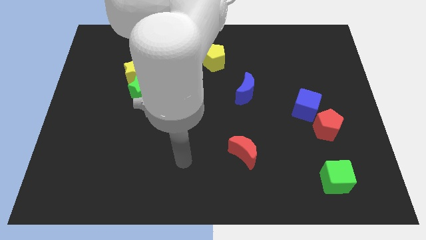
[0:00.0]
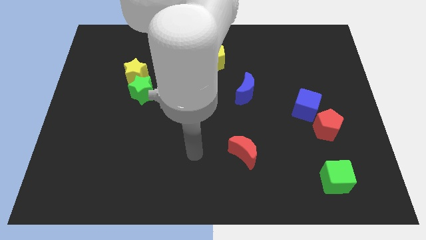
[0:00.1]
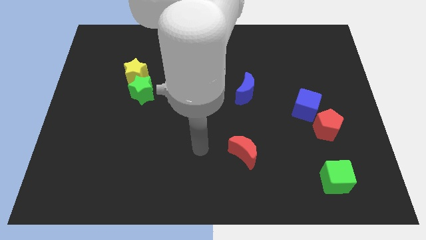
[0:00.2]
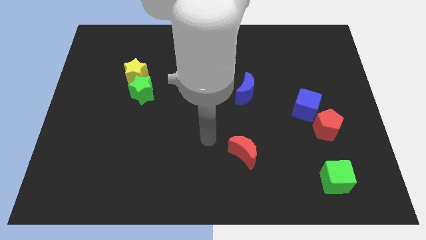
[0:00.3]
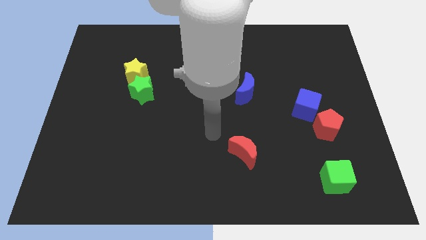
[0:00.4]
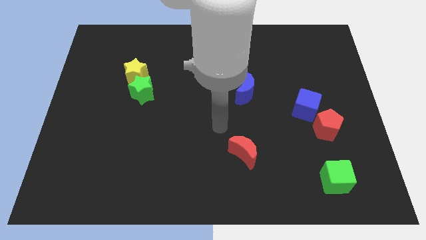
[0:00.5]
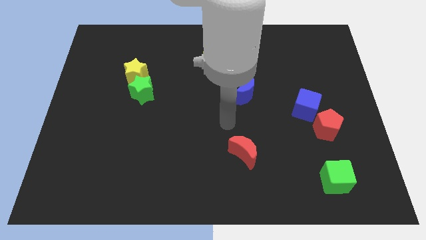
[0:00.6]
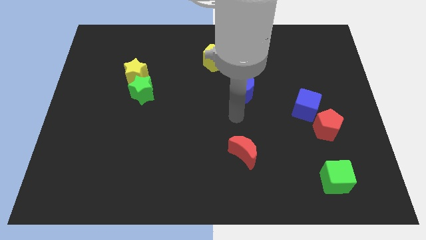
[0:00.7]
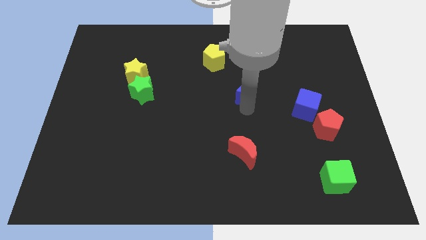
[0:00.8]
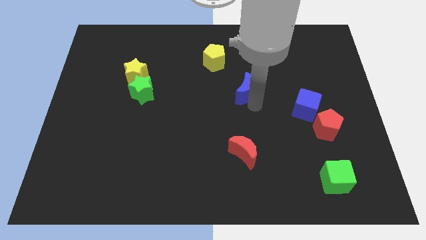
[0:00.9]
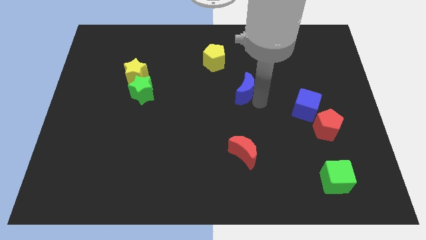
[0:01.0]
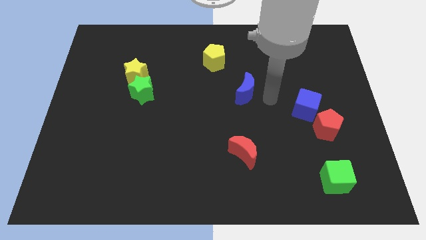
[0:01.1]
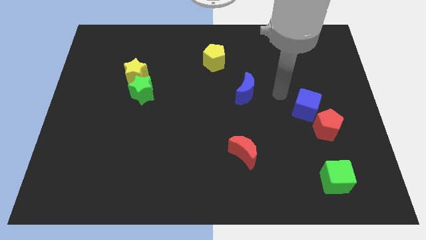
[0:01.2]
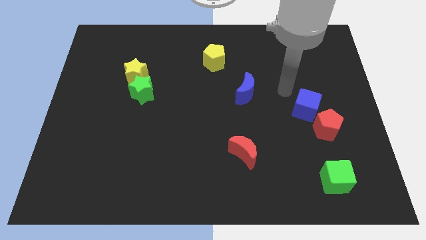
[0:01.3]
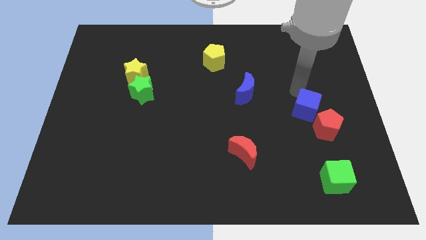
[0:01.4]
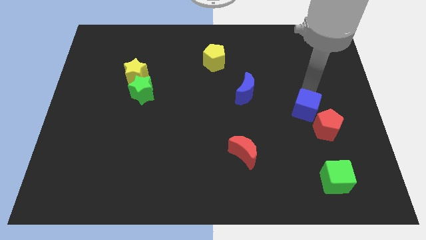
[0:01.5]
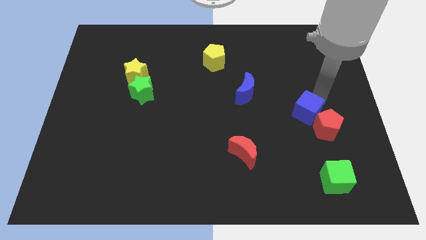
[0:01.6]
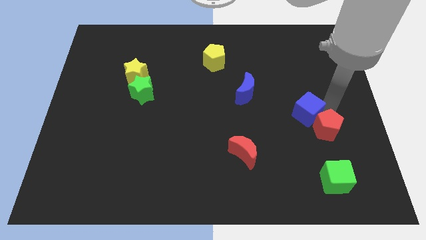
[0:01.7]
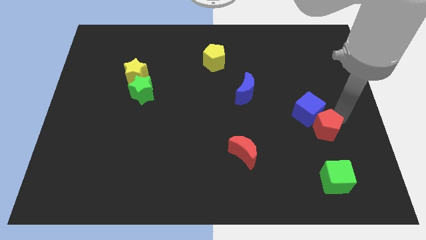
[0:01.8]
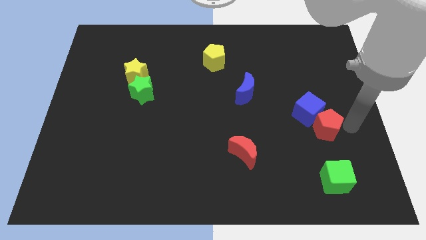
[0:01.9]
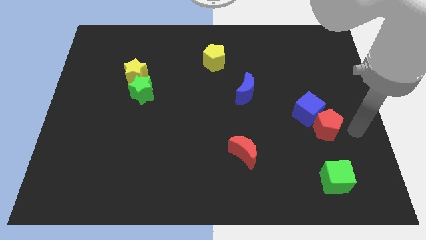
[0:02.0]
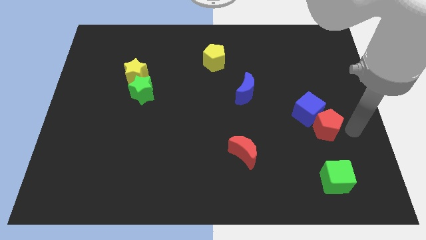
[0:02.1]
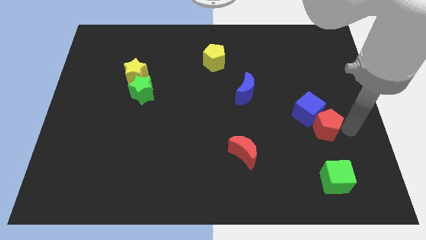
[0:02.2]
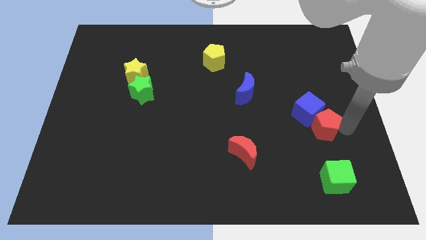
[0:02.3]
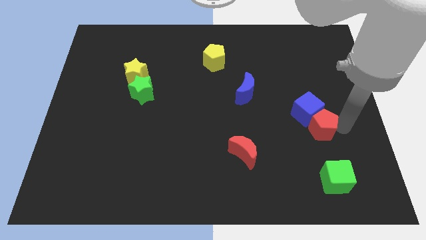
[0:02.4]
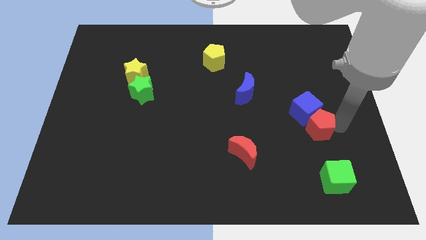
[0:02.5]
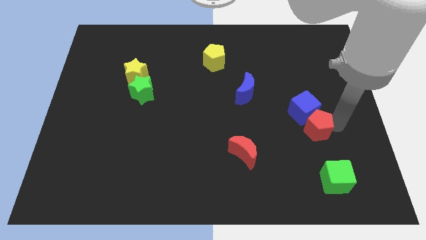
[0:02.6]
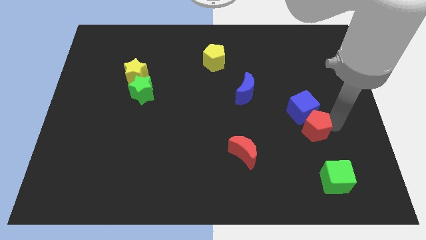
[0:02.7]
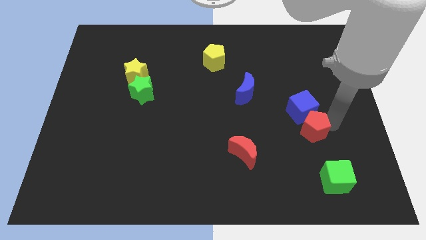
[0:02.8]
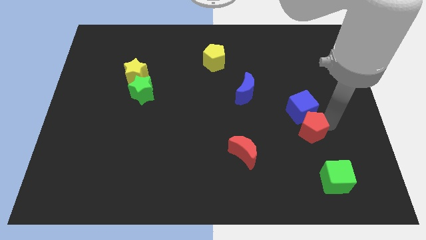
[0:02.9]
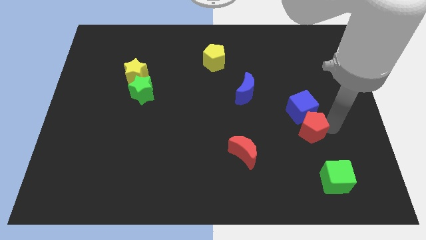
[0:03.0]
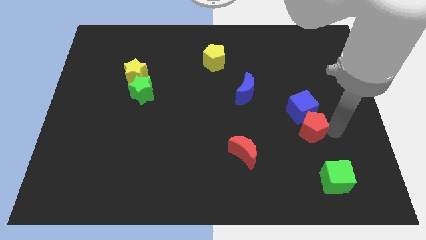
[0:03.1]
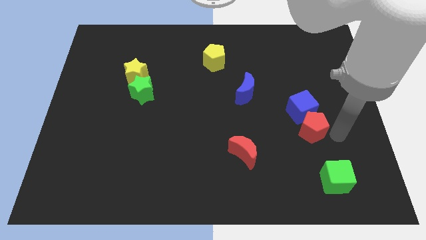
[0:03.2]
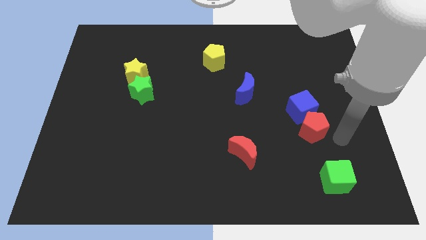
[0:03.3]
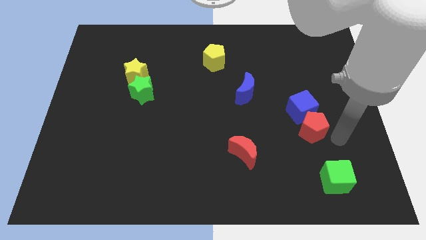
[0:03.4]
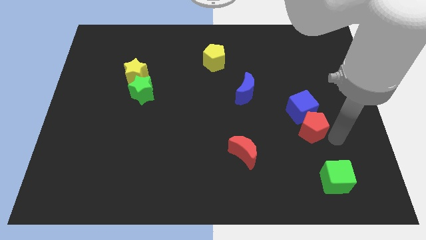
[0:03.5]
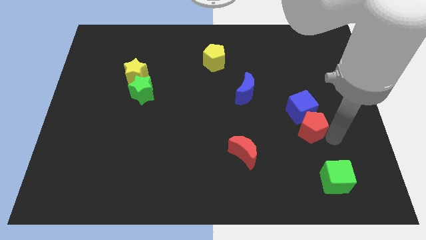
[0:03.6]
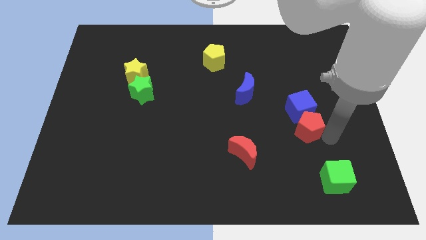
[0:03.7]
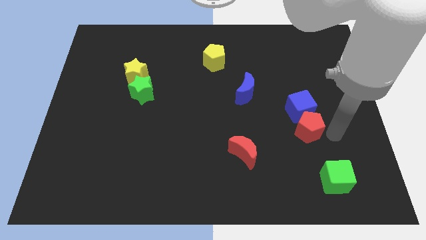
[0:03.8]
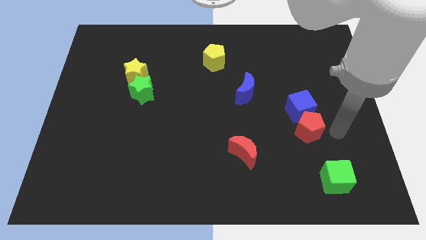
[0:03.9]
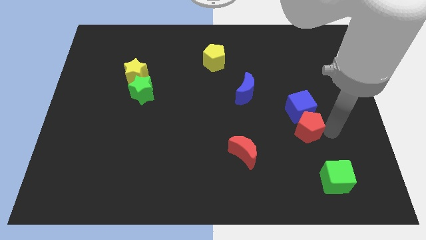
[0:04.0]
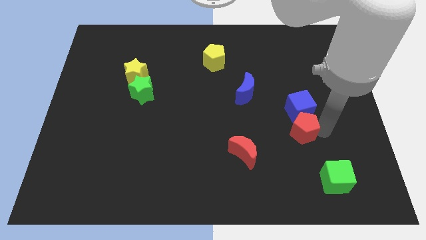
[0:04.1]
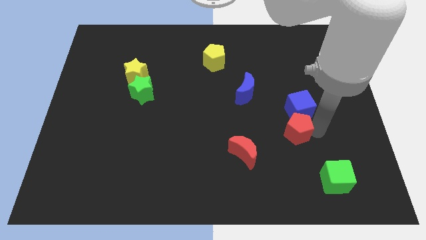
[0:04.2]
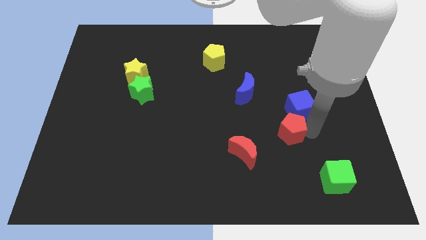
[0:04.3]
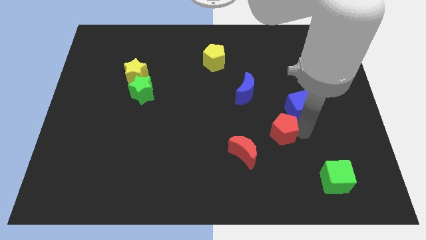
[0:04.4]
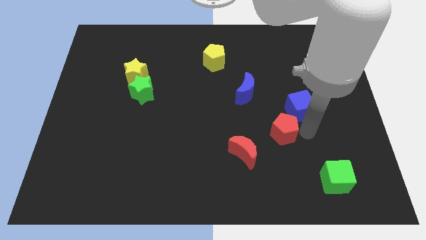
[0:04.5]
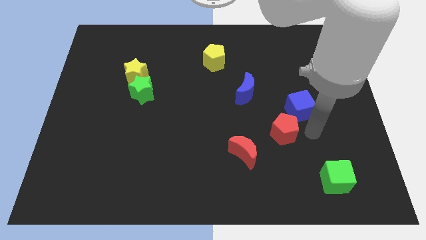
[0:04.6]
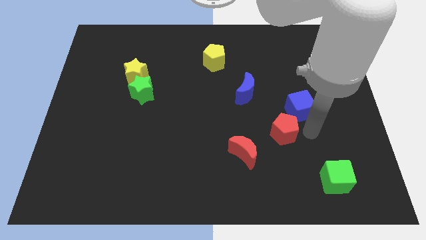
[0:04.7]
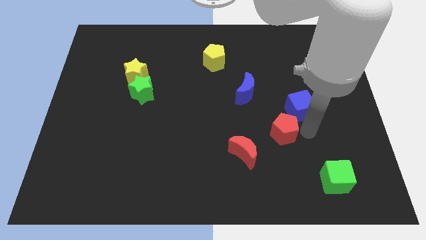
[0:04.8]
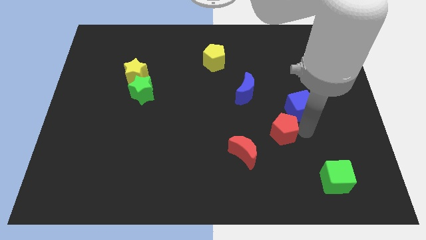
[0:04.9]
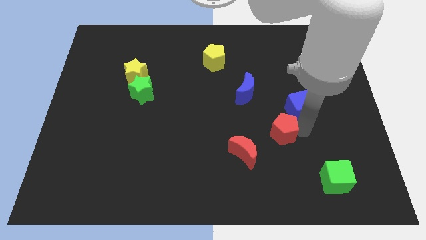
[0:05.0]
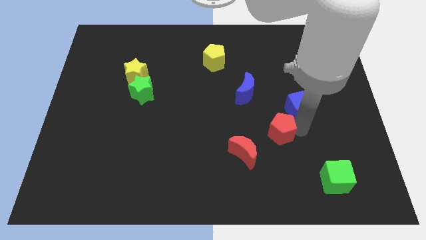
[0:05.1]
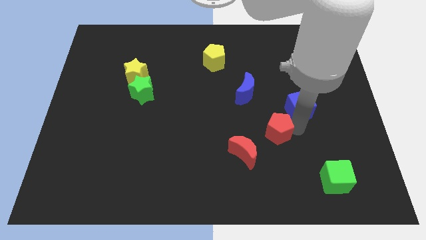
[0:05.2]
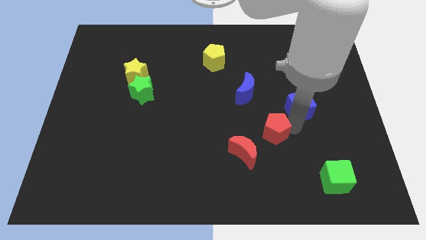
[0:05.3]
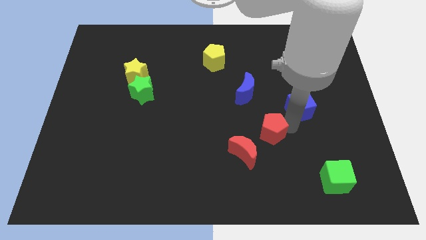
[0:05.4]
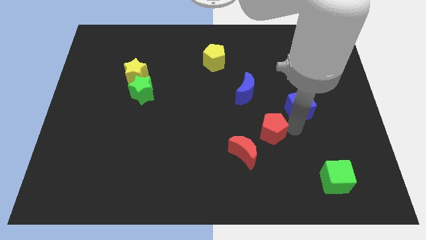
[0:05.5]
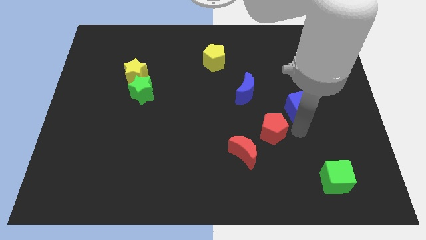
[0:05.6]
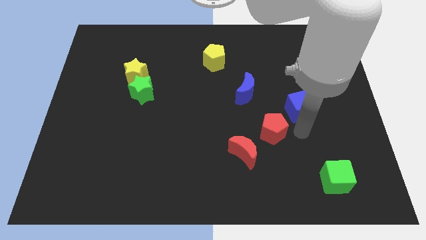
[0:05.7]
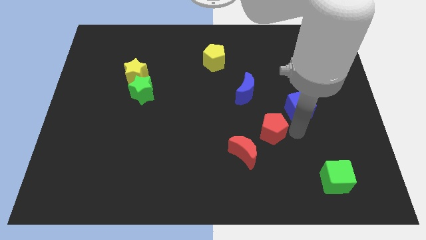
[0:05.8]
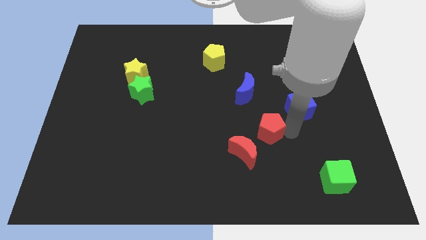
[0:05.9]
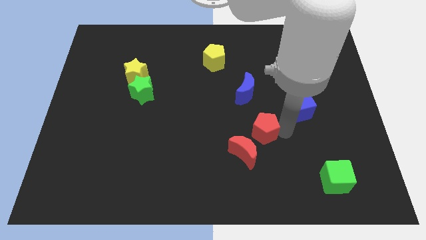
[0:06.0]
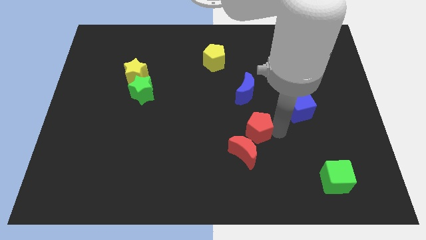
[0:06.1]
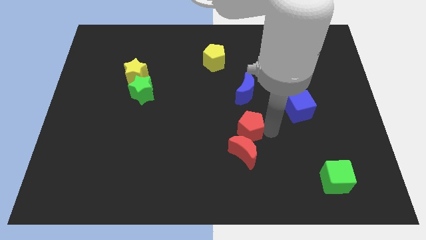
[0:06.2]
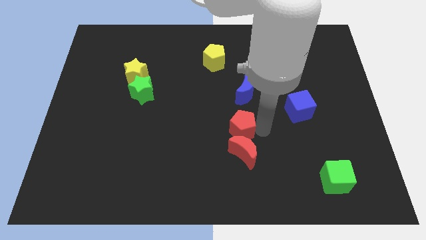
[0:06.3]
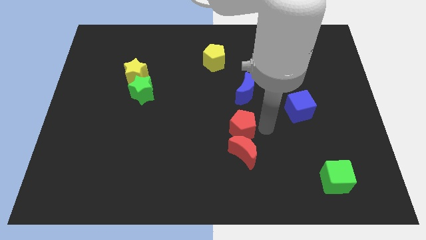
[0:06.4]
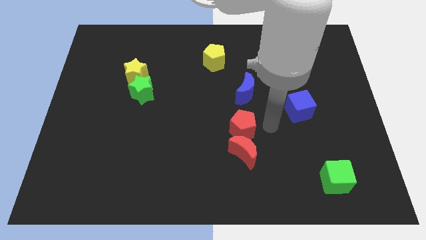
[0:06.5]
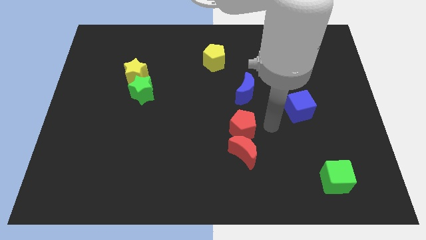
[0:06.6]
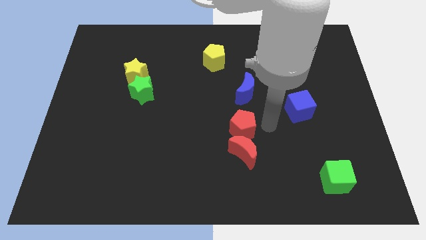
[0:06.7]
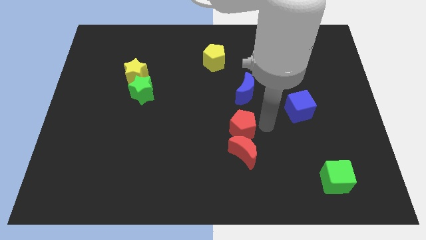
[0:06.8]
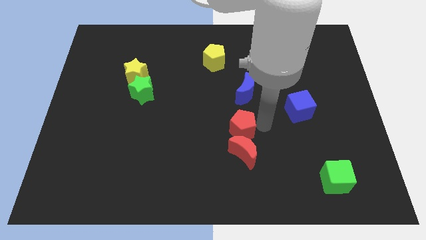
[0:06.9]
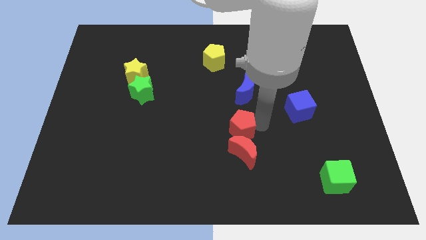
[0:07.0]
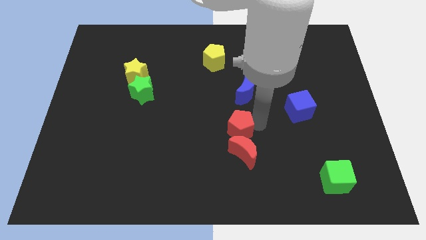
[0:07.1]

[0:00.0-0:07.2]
push the red pentagon left

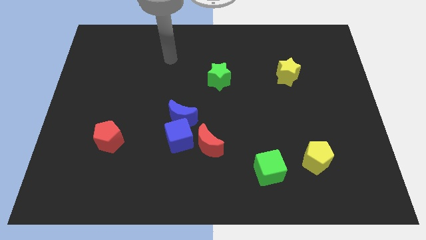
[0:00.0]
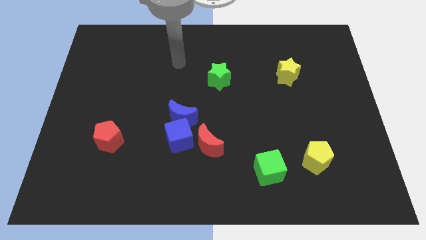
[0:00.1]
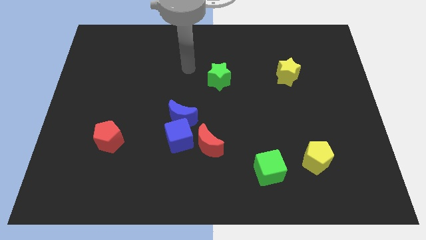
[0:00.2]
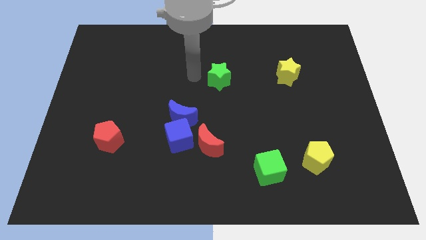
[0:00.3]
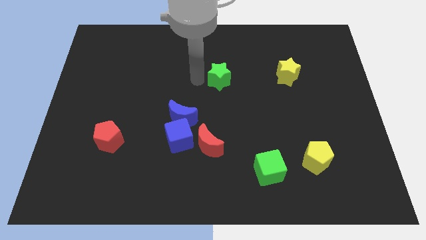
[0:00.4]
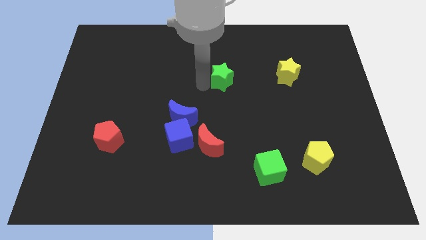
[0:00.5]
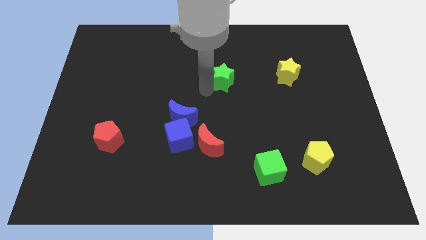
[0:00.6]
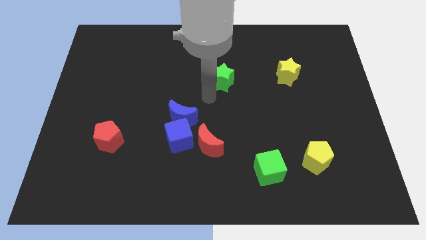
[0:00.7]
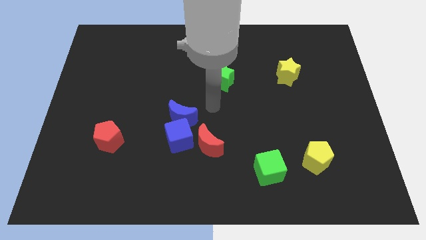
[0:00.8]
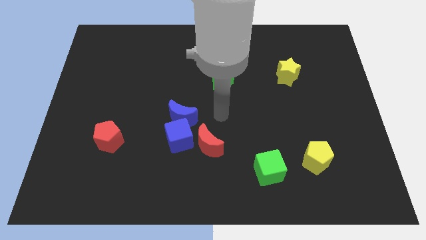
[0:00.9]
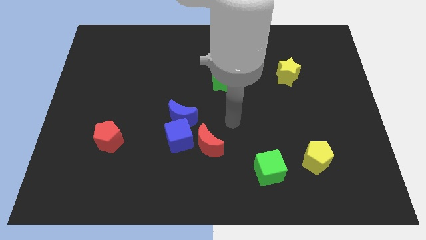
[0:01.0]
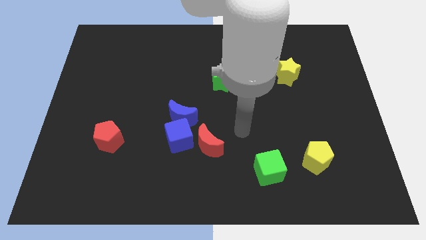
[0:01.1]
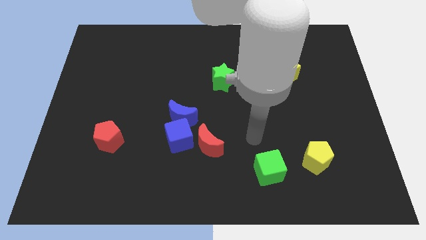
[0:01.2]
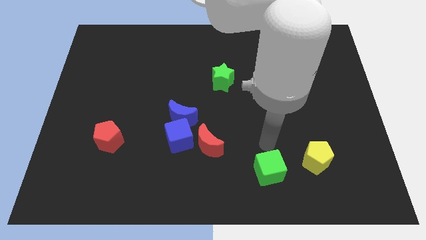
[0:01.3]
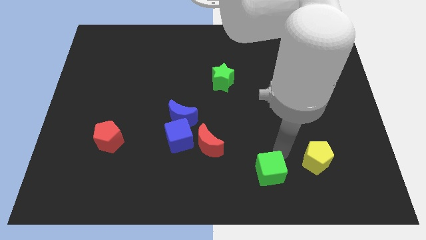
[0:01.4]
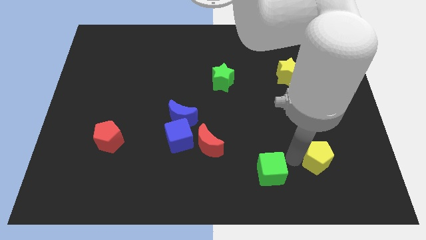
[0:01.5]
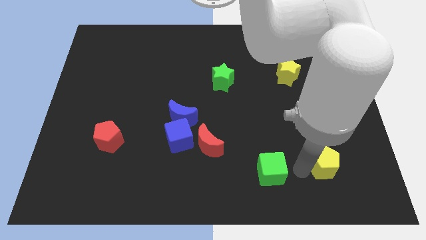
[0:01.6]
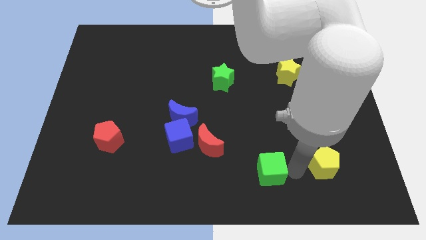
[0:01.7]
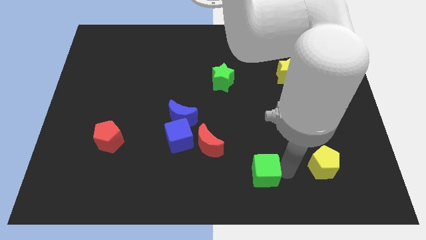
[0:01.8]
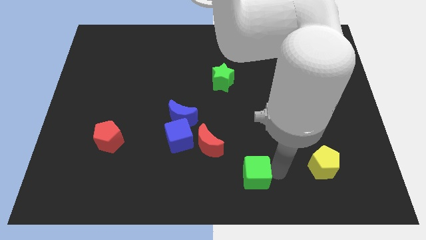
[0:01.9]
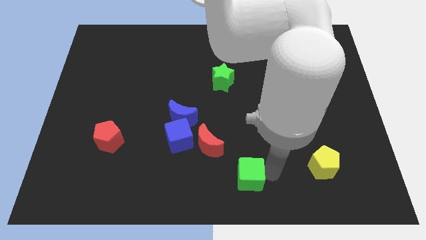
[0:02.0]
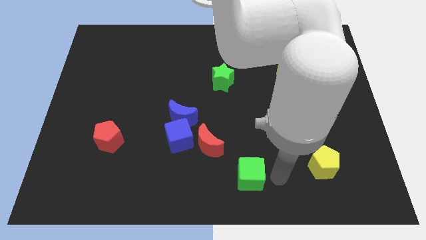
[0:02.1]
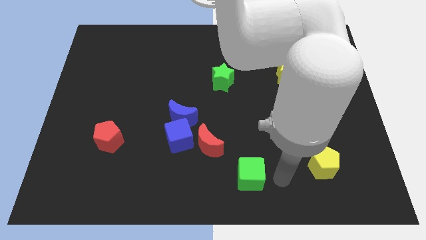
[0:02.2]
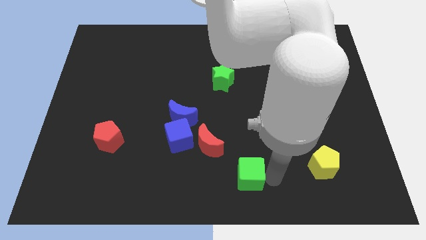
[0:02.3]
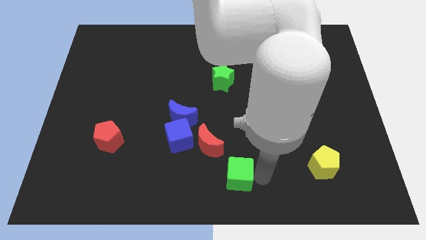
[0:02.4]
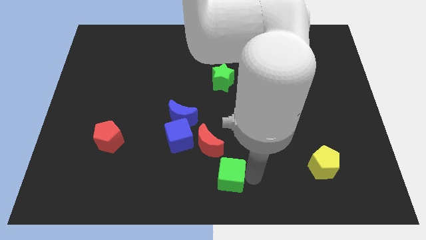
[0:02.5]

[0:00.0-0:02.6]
slightly move the green cube to the left
